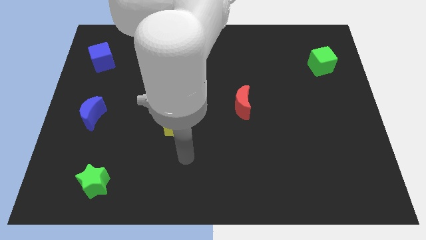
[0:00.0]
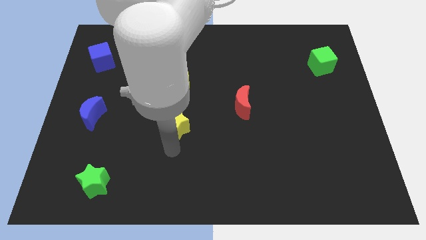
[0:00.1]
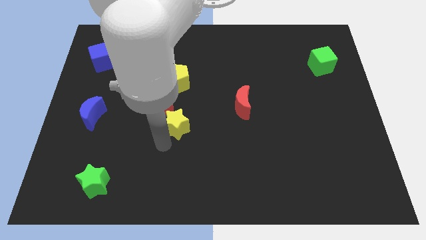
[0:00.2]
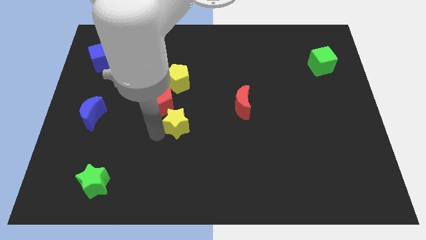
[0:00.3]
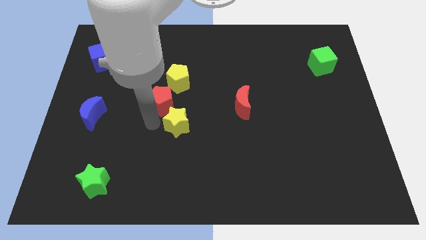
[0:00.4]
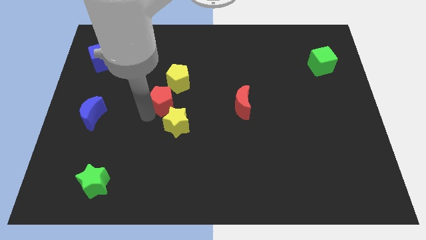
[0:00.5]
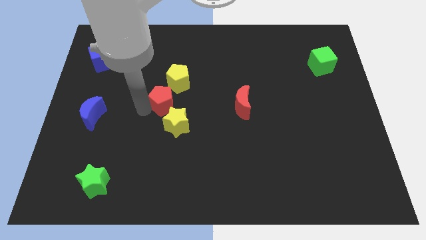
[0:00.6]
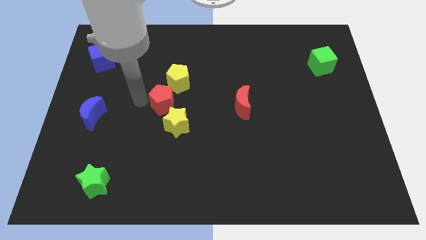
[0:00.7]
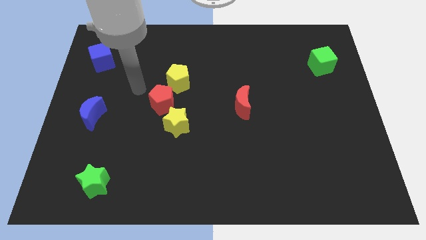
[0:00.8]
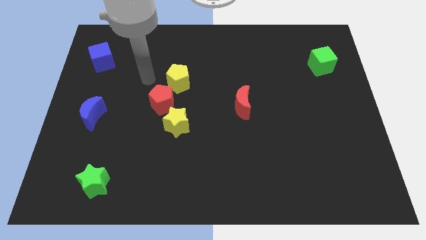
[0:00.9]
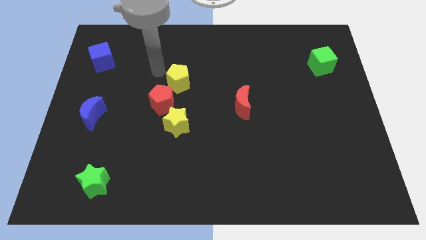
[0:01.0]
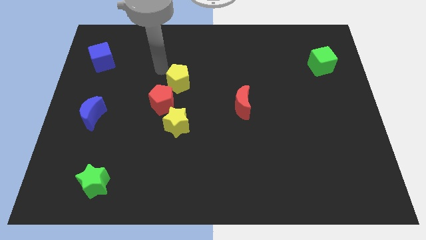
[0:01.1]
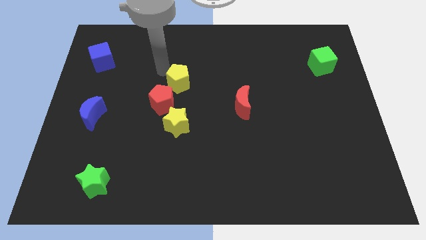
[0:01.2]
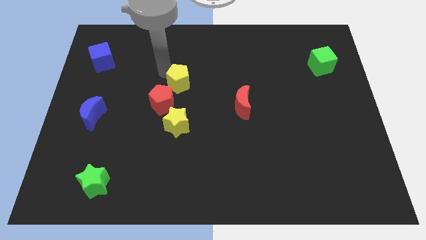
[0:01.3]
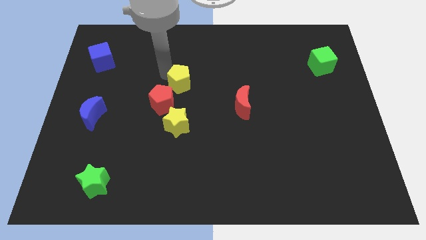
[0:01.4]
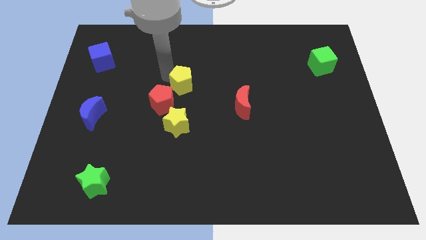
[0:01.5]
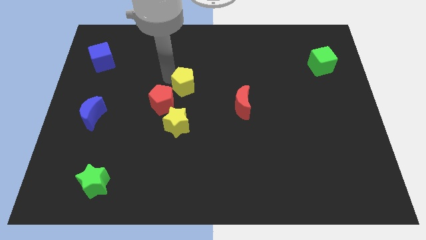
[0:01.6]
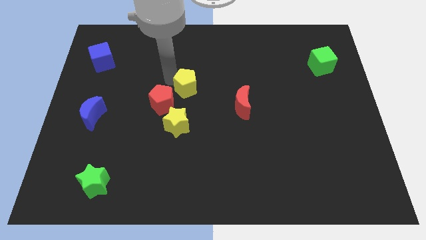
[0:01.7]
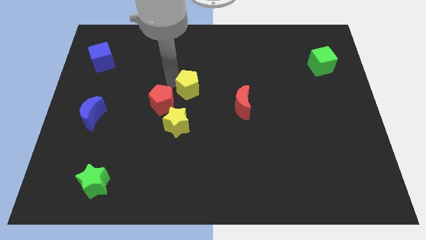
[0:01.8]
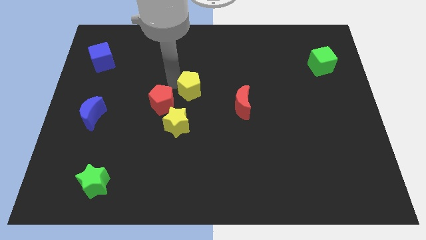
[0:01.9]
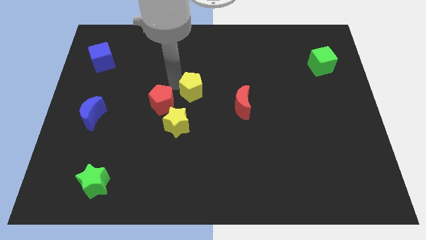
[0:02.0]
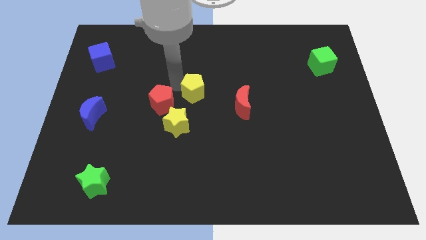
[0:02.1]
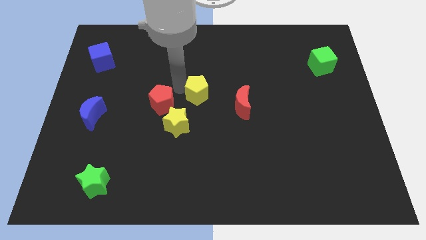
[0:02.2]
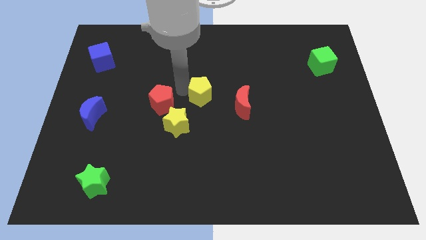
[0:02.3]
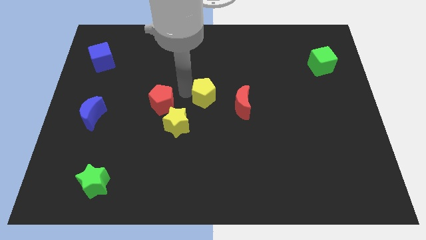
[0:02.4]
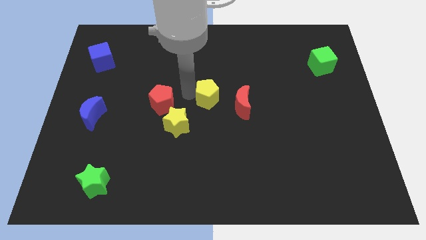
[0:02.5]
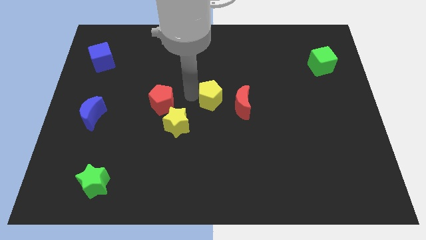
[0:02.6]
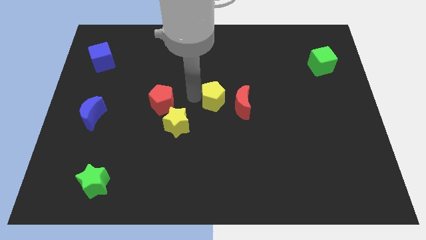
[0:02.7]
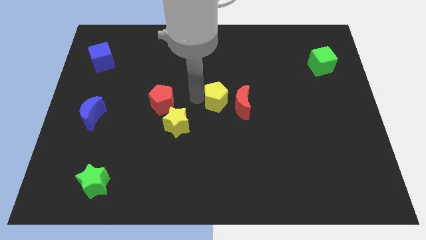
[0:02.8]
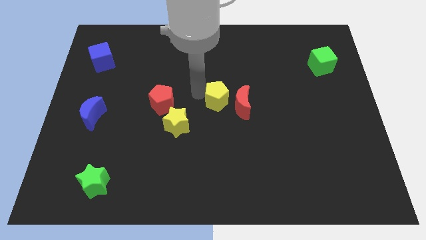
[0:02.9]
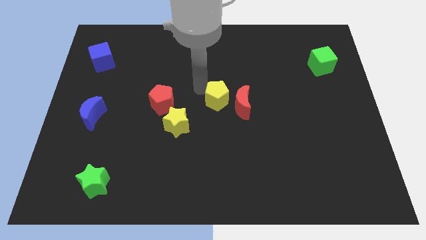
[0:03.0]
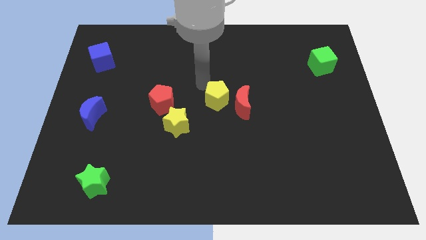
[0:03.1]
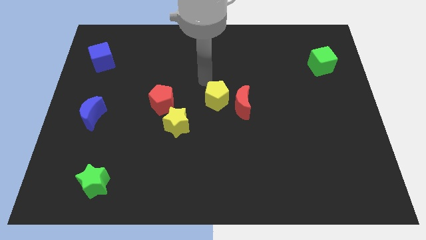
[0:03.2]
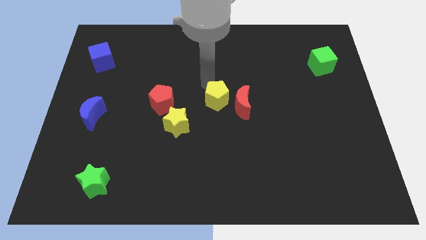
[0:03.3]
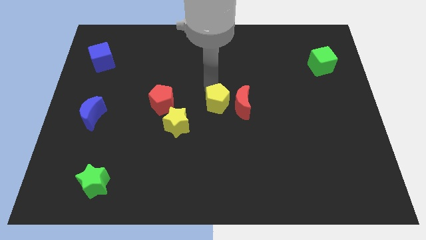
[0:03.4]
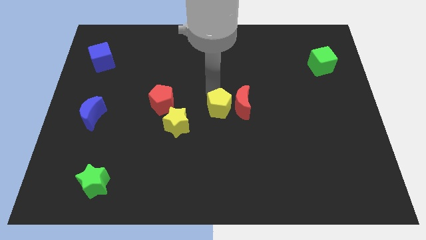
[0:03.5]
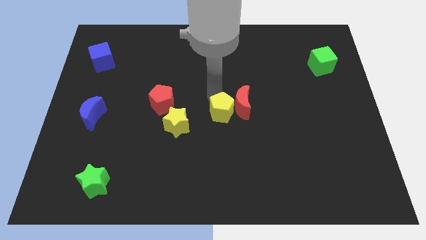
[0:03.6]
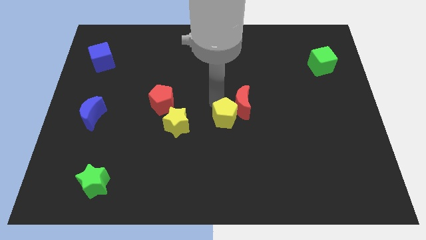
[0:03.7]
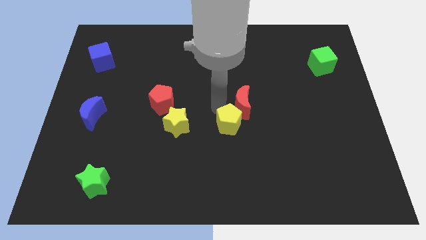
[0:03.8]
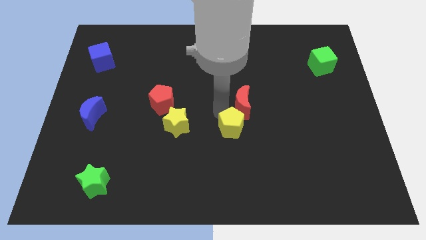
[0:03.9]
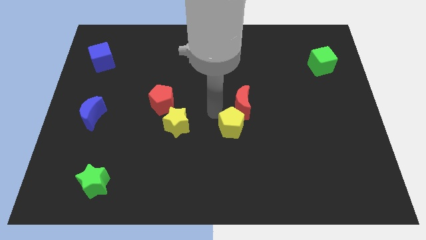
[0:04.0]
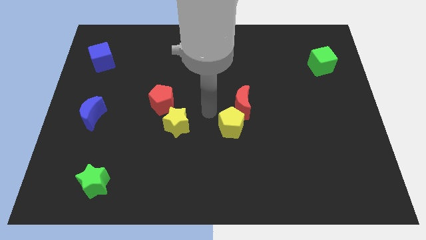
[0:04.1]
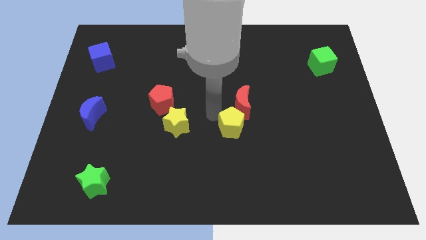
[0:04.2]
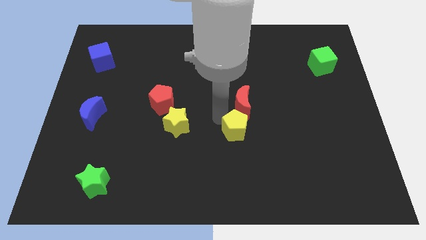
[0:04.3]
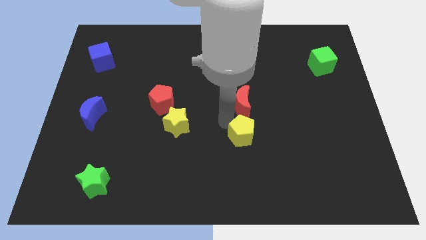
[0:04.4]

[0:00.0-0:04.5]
push the yellow pentagon diagonally downwards and right

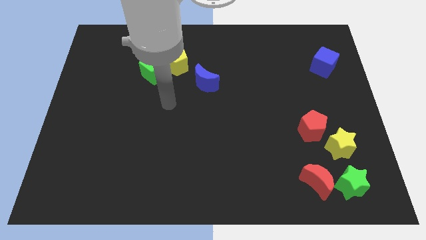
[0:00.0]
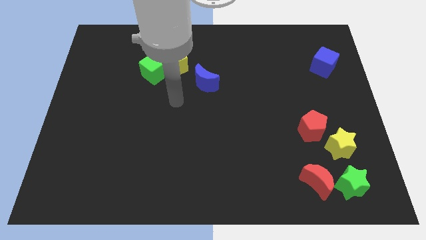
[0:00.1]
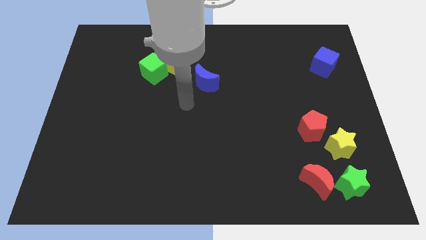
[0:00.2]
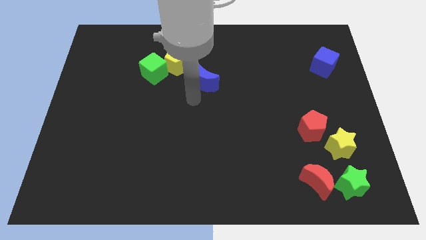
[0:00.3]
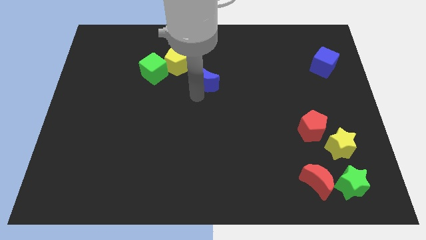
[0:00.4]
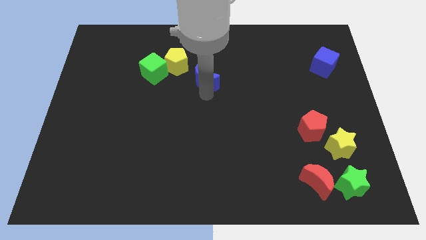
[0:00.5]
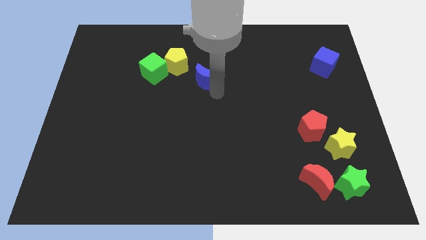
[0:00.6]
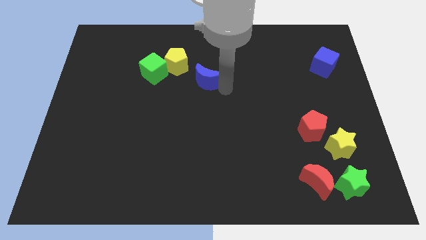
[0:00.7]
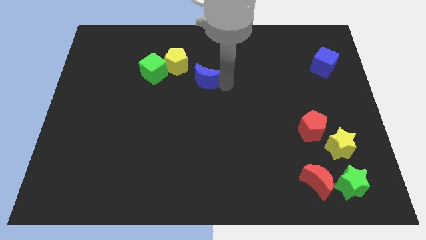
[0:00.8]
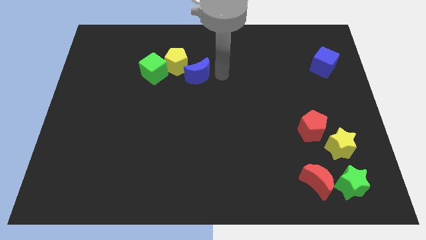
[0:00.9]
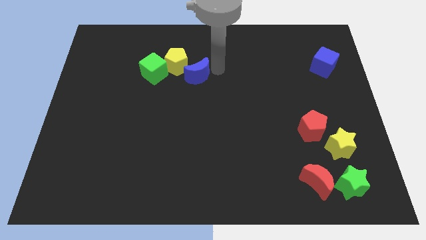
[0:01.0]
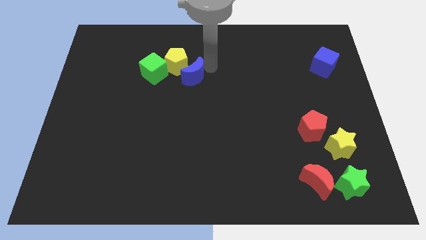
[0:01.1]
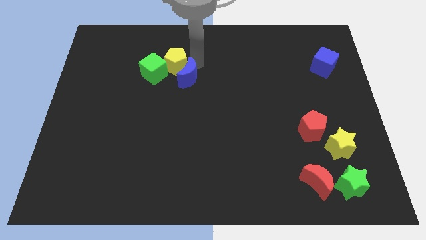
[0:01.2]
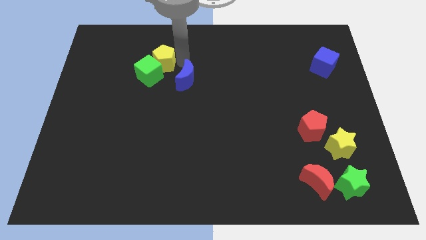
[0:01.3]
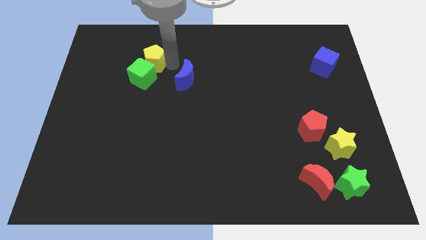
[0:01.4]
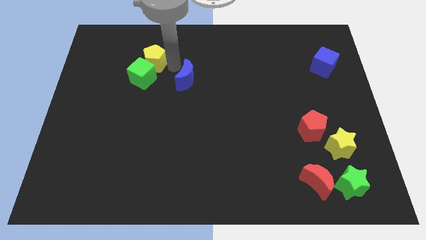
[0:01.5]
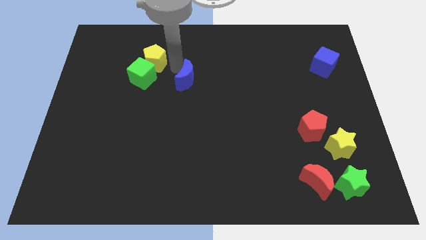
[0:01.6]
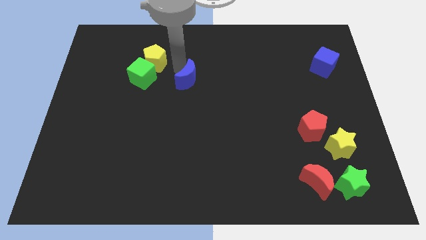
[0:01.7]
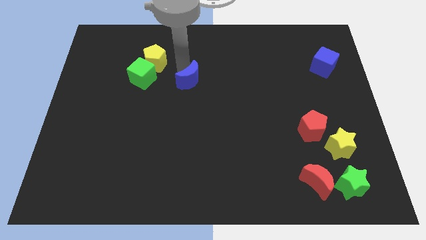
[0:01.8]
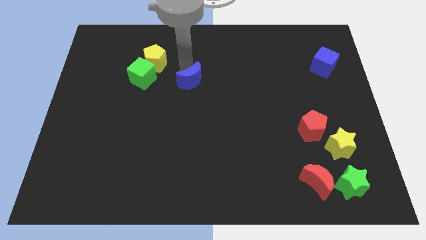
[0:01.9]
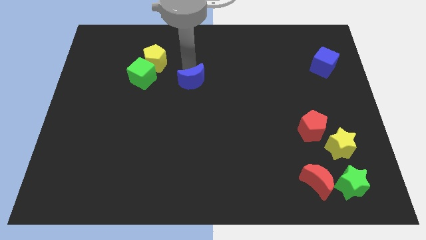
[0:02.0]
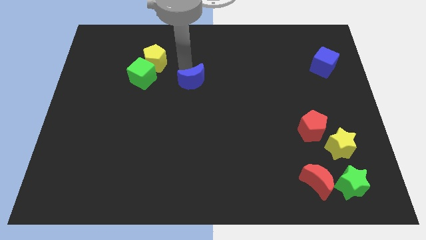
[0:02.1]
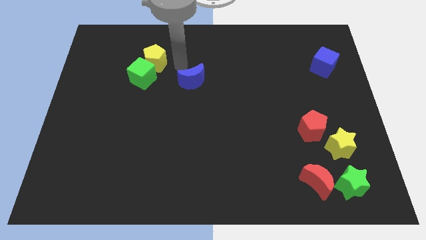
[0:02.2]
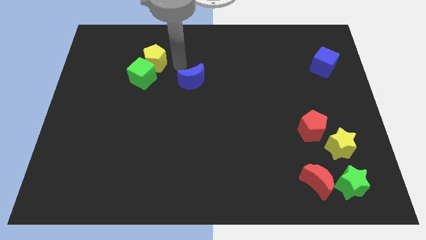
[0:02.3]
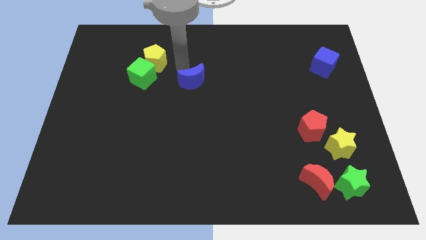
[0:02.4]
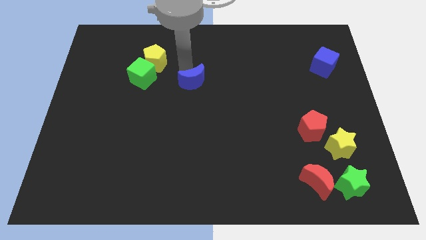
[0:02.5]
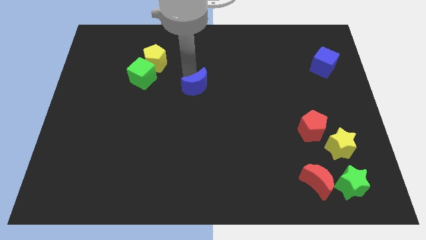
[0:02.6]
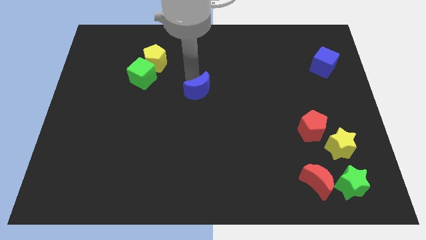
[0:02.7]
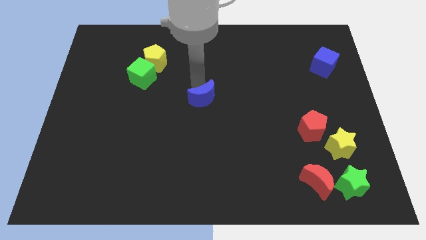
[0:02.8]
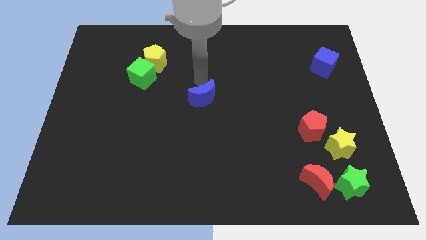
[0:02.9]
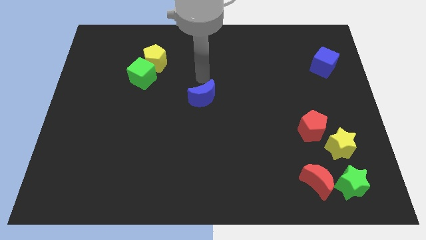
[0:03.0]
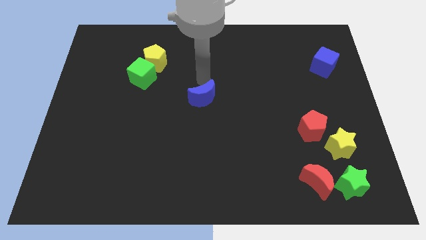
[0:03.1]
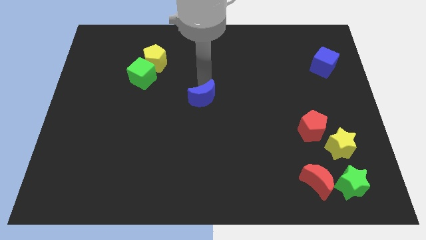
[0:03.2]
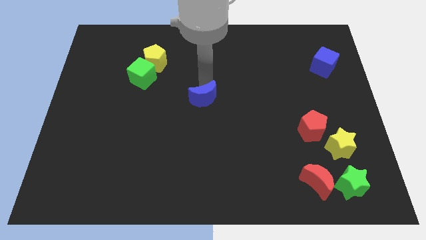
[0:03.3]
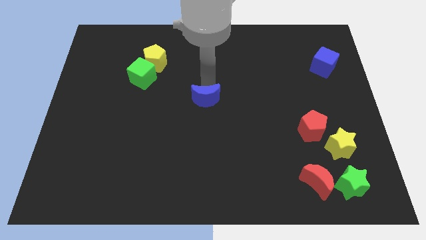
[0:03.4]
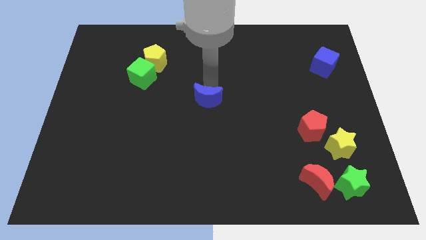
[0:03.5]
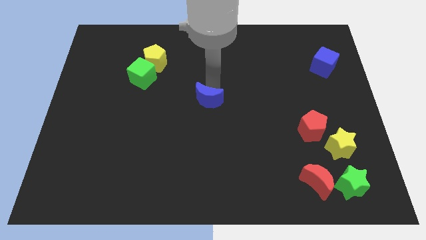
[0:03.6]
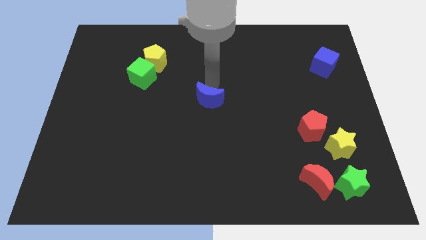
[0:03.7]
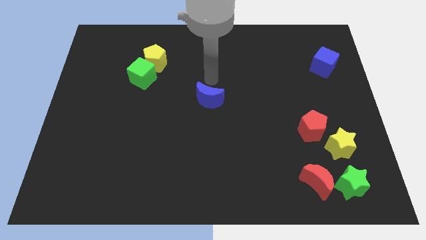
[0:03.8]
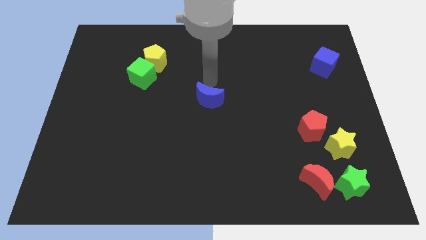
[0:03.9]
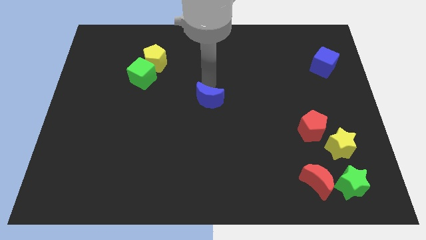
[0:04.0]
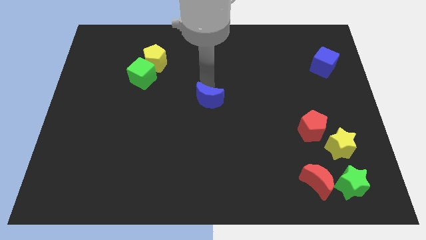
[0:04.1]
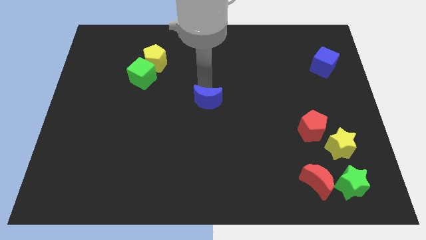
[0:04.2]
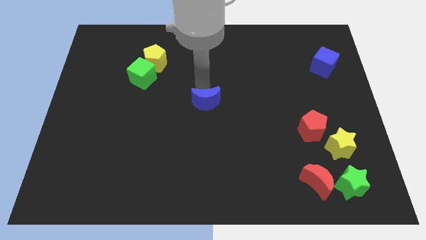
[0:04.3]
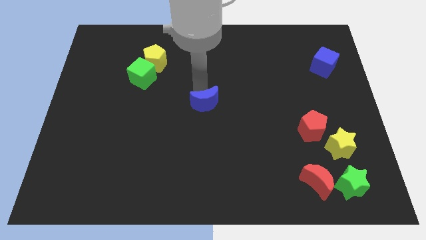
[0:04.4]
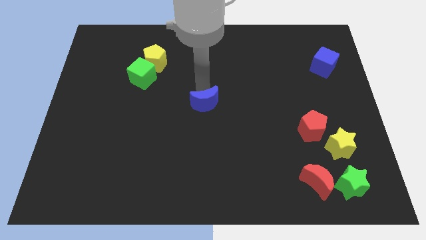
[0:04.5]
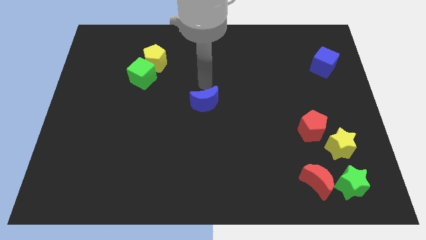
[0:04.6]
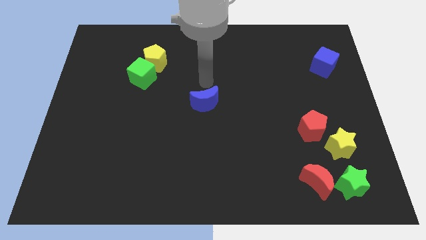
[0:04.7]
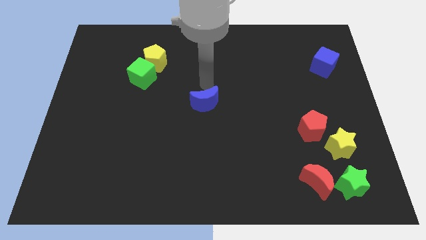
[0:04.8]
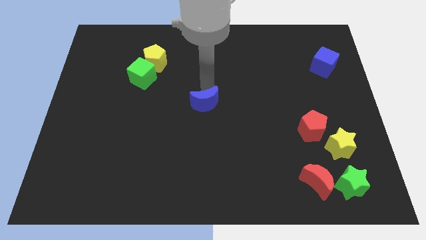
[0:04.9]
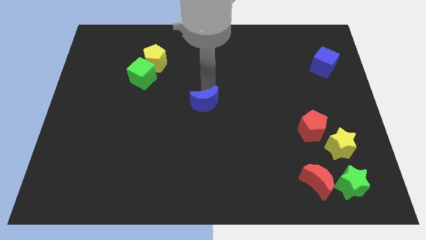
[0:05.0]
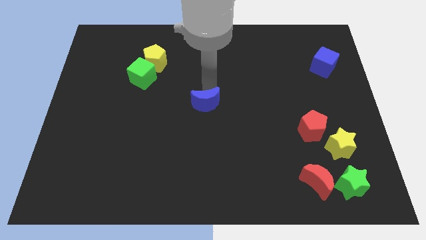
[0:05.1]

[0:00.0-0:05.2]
move the blue moon down somewhat
